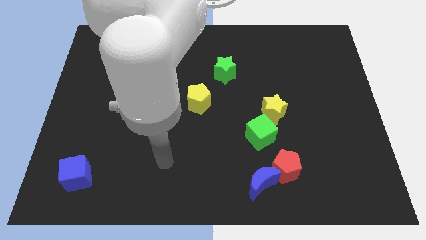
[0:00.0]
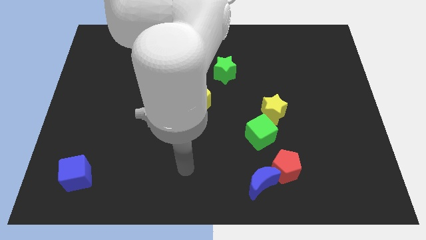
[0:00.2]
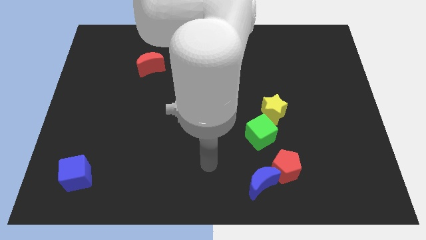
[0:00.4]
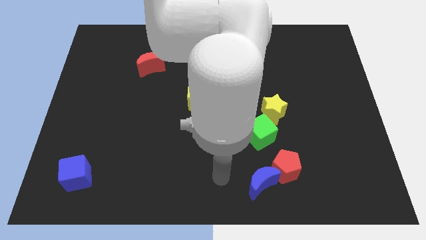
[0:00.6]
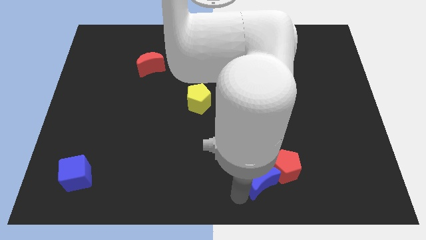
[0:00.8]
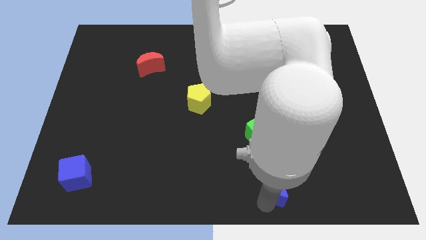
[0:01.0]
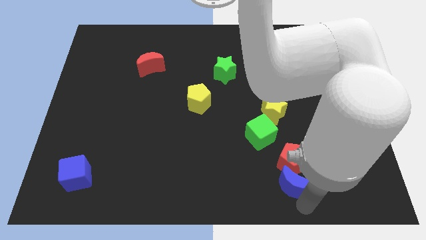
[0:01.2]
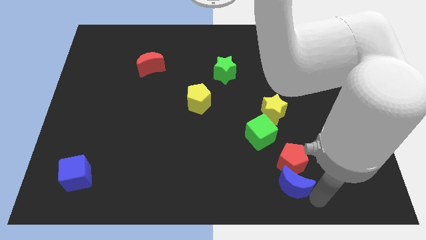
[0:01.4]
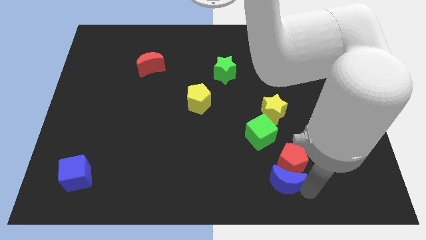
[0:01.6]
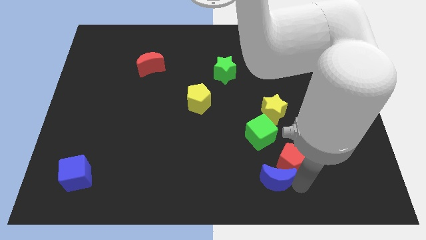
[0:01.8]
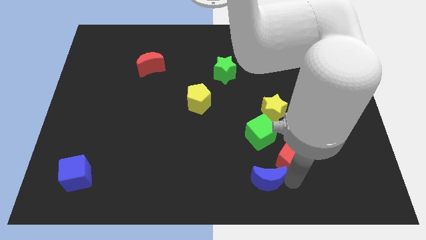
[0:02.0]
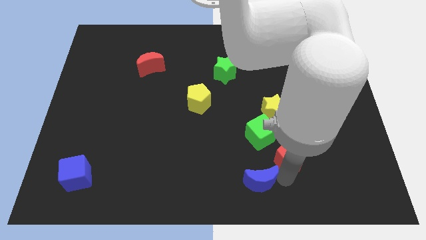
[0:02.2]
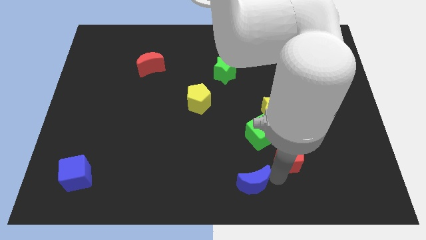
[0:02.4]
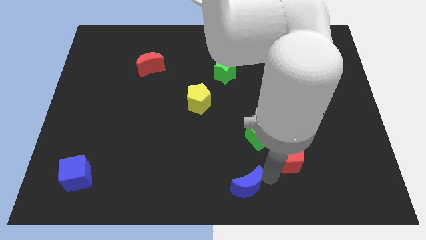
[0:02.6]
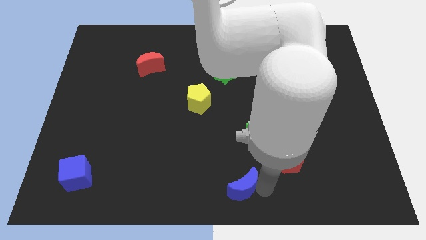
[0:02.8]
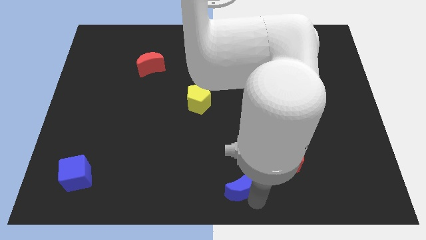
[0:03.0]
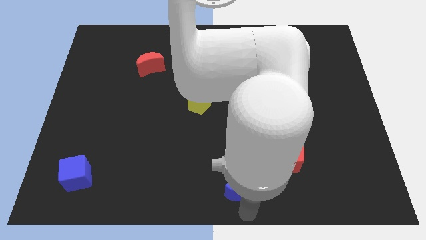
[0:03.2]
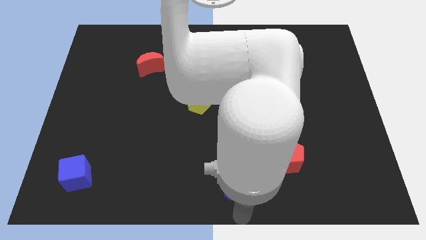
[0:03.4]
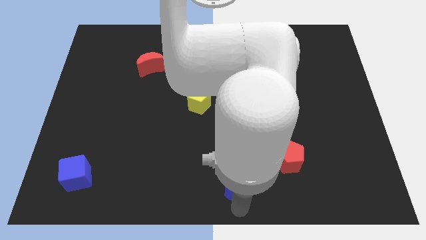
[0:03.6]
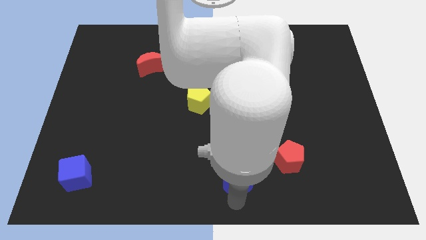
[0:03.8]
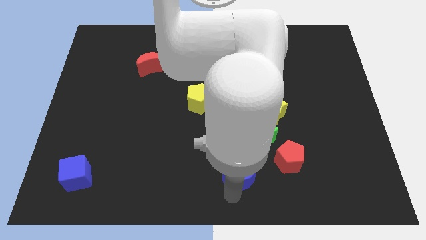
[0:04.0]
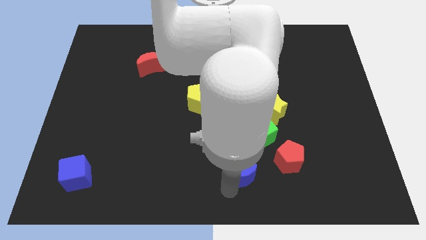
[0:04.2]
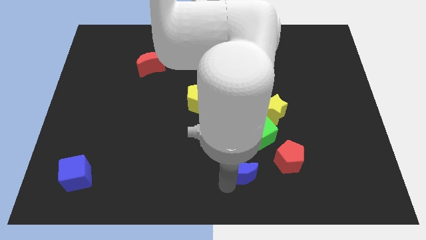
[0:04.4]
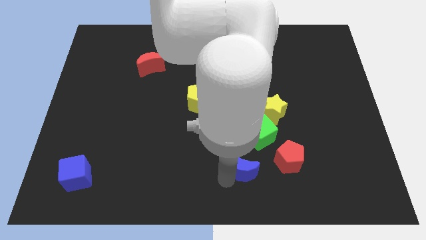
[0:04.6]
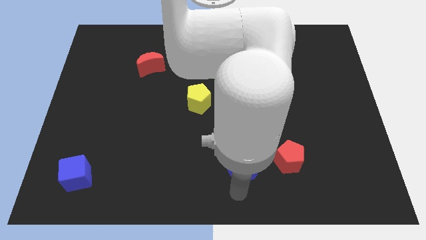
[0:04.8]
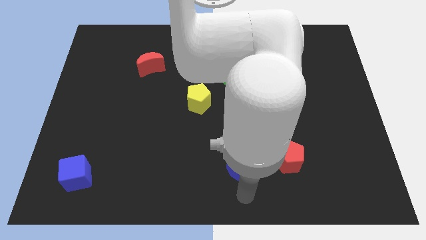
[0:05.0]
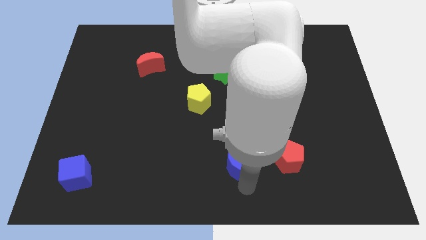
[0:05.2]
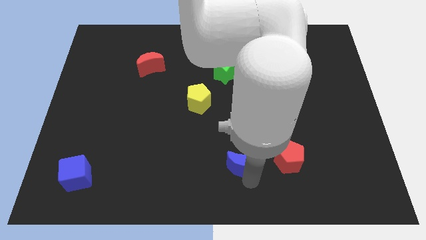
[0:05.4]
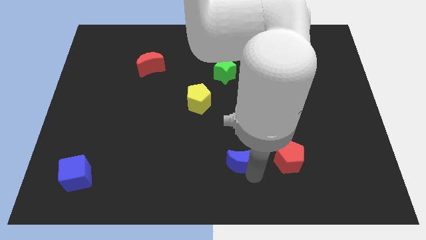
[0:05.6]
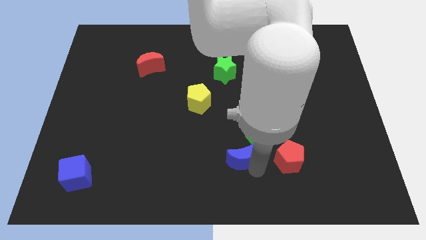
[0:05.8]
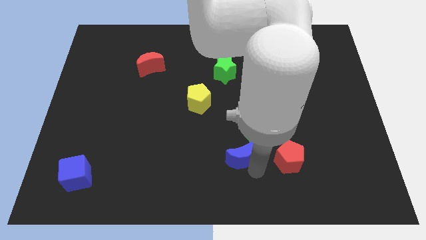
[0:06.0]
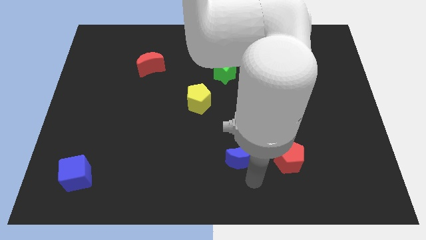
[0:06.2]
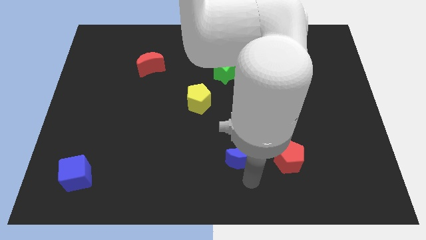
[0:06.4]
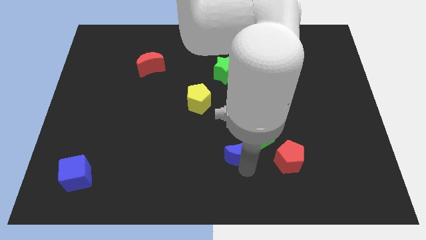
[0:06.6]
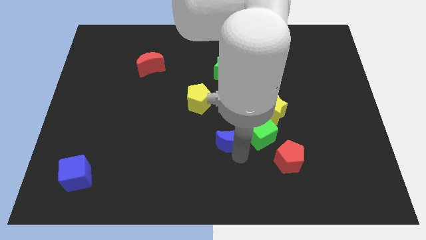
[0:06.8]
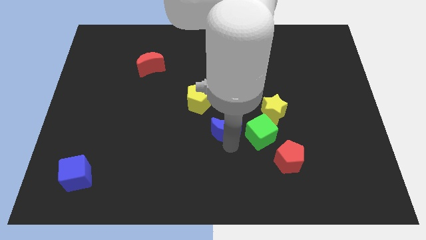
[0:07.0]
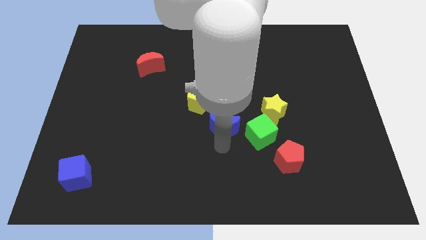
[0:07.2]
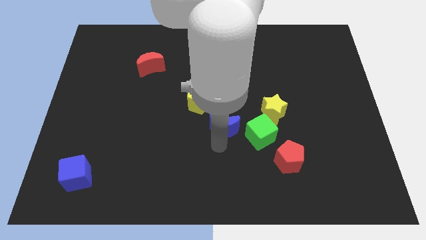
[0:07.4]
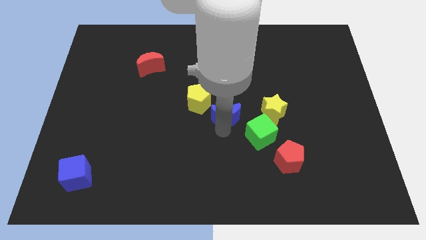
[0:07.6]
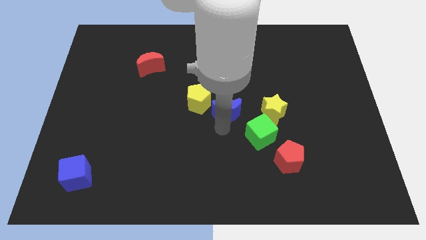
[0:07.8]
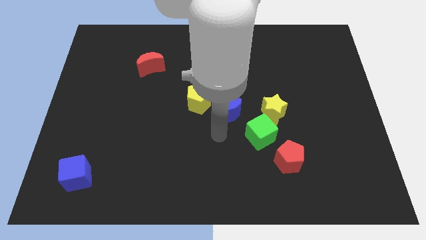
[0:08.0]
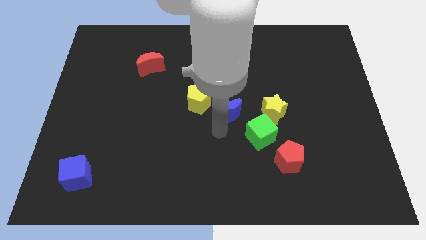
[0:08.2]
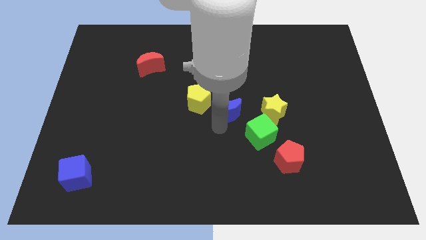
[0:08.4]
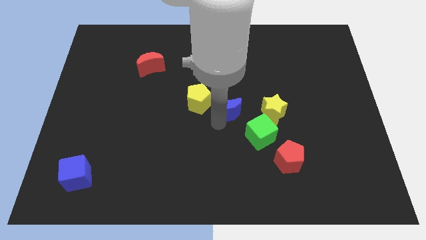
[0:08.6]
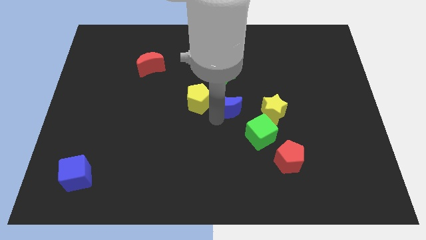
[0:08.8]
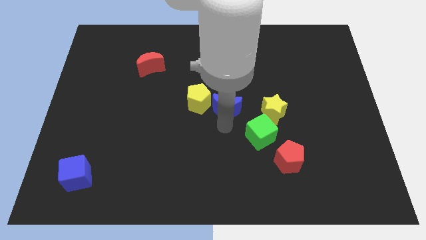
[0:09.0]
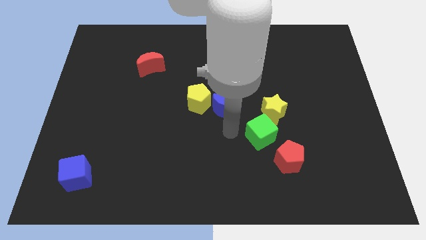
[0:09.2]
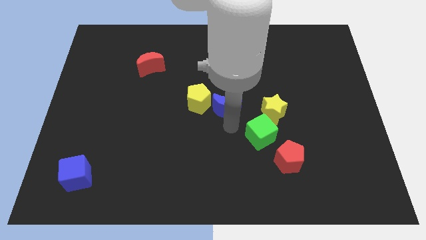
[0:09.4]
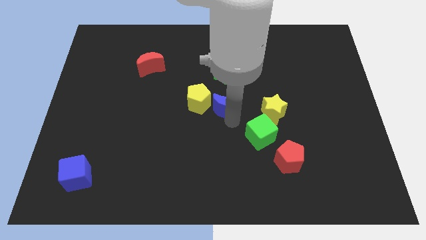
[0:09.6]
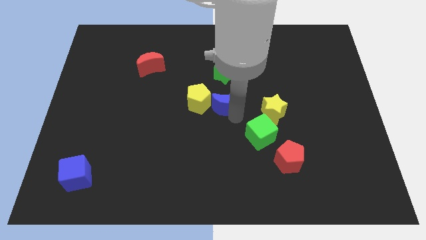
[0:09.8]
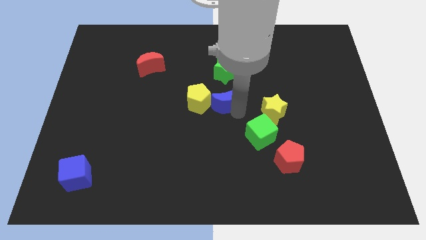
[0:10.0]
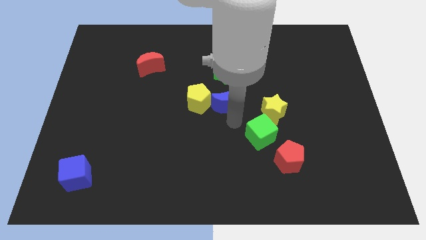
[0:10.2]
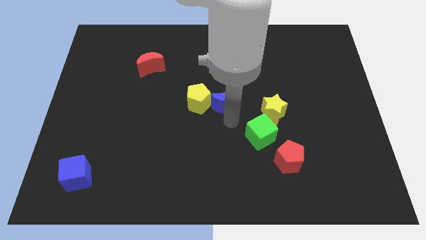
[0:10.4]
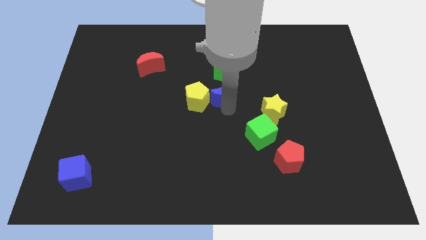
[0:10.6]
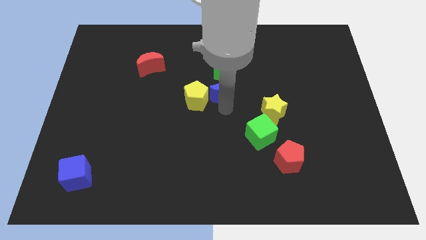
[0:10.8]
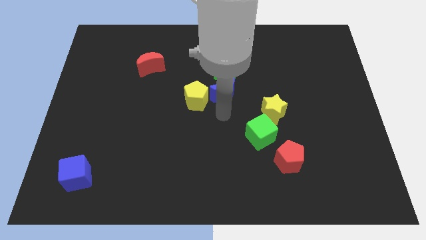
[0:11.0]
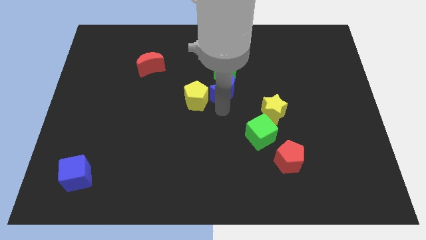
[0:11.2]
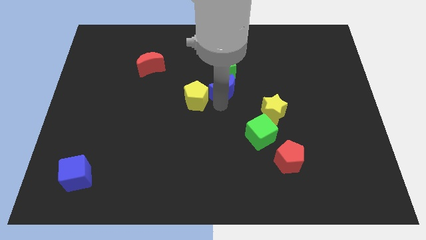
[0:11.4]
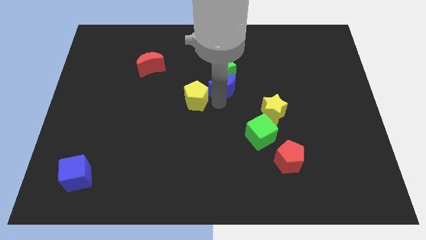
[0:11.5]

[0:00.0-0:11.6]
slide the blue moon to the green star

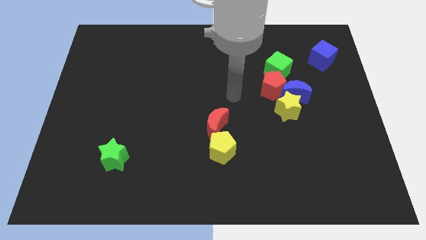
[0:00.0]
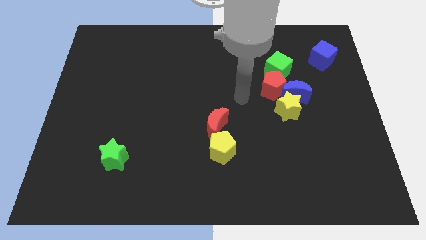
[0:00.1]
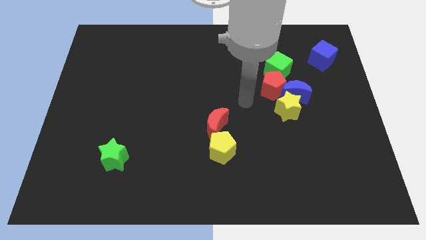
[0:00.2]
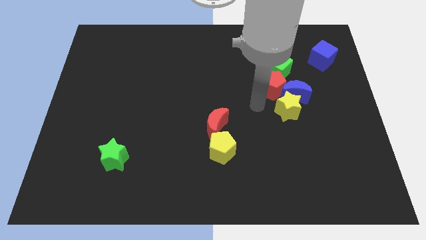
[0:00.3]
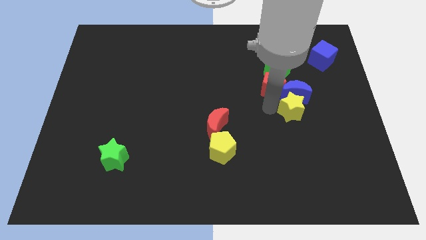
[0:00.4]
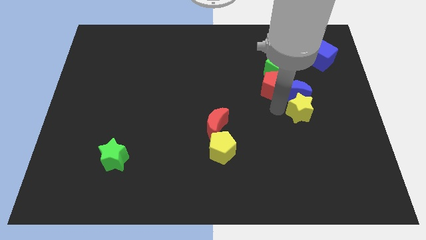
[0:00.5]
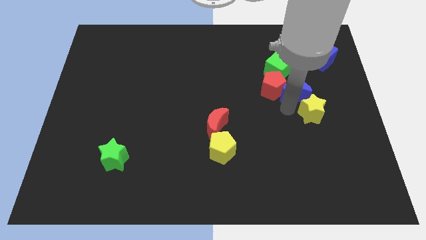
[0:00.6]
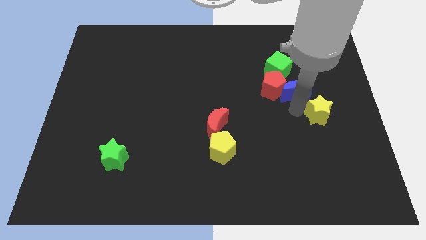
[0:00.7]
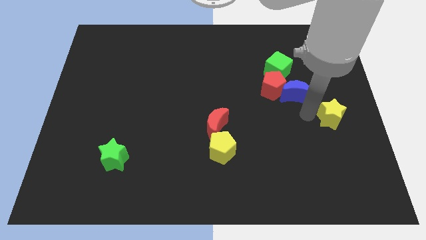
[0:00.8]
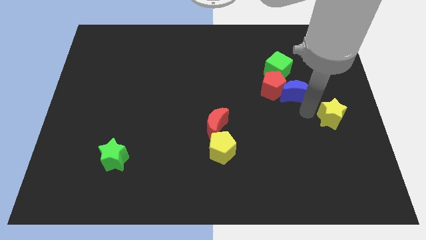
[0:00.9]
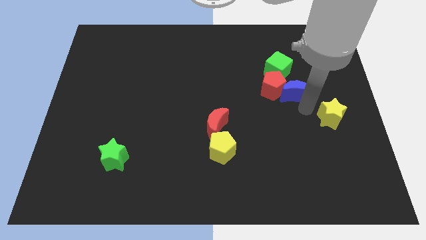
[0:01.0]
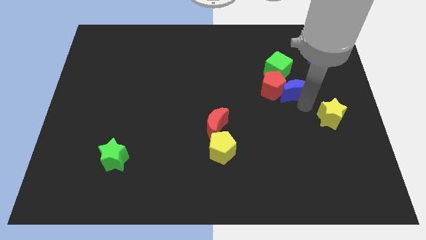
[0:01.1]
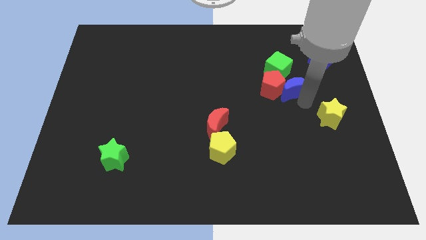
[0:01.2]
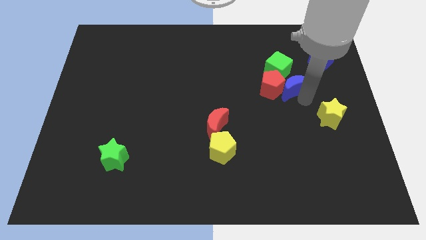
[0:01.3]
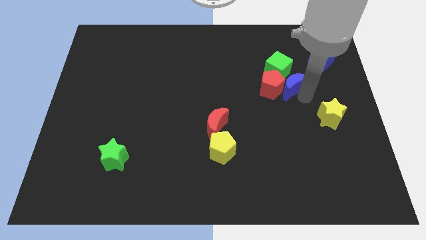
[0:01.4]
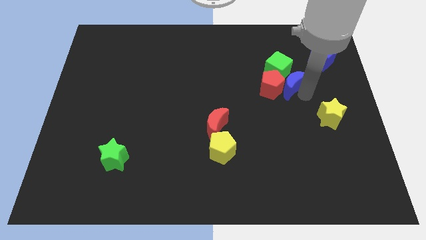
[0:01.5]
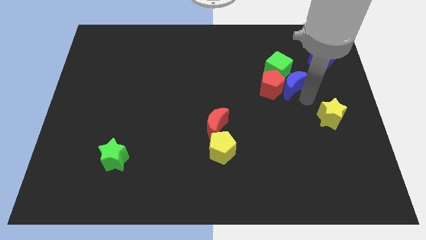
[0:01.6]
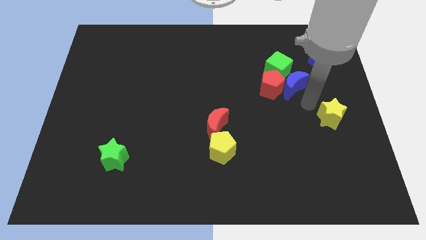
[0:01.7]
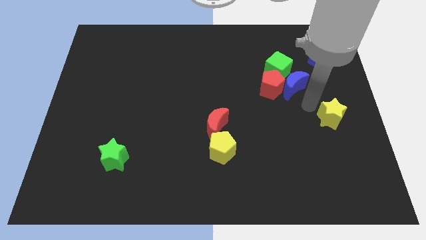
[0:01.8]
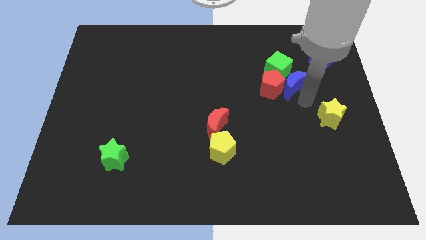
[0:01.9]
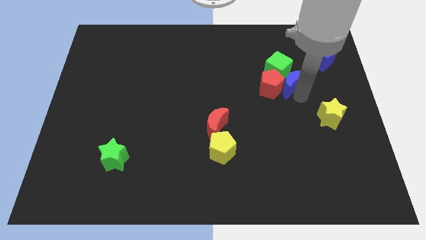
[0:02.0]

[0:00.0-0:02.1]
put the blue moon towards the green cube
